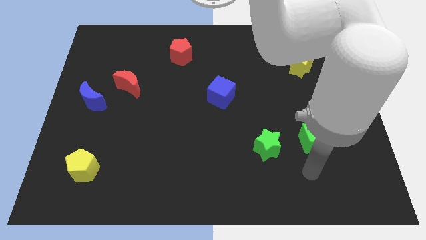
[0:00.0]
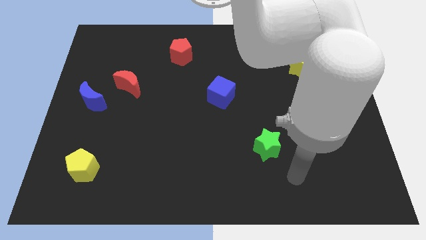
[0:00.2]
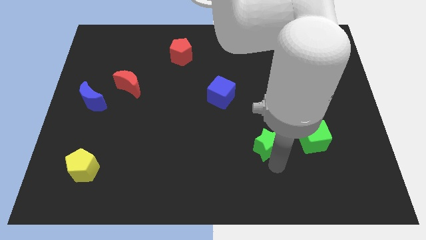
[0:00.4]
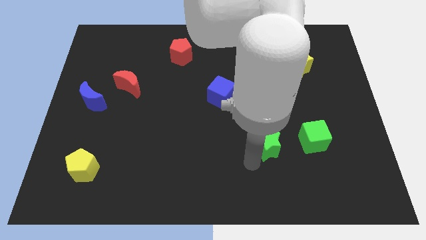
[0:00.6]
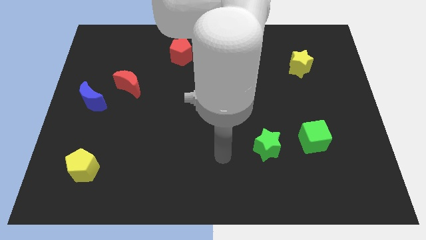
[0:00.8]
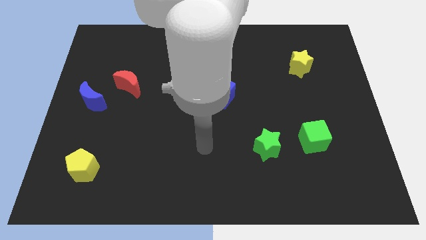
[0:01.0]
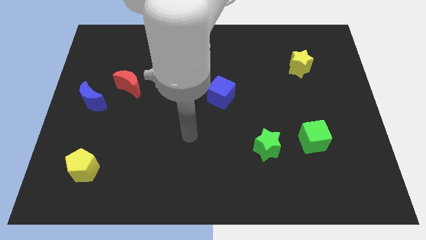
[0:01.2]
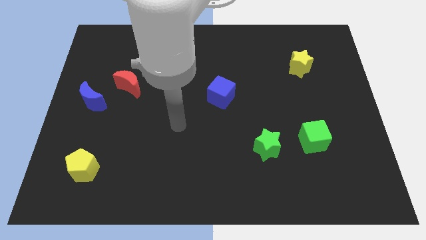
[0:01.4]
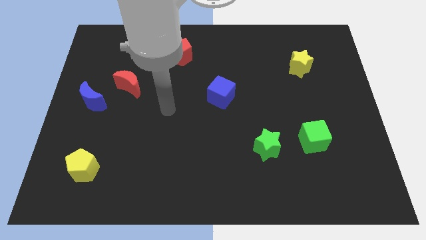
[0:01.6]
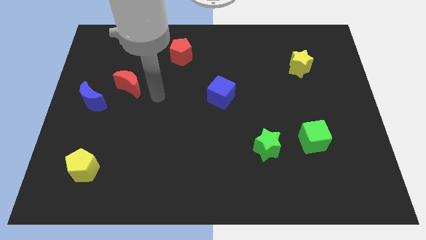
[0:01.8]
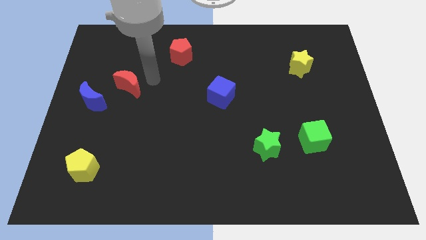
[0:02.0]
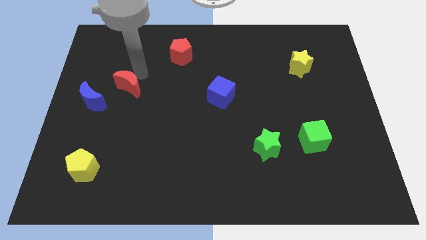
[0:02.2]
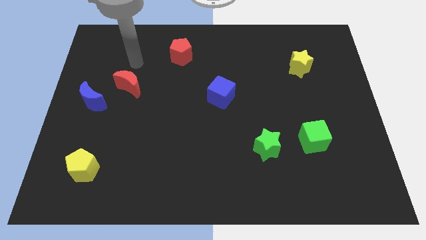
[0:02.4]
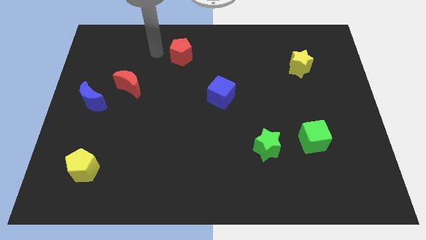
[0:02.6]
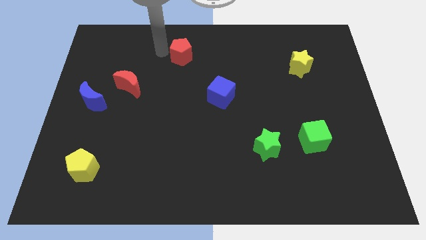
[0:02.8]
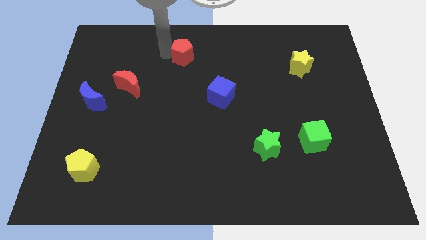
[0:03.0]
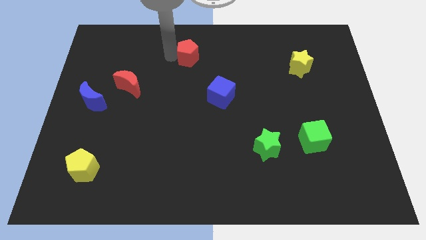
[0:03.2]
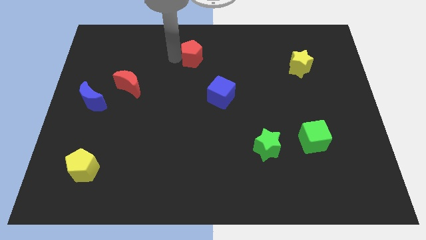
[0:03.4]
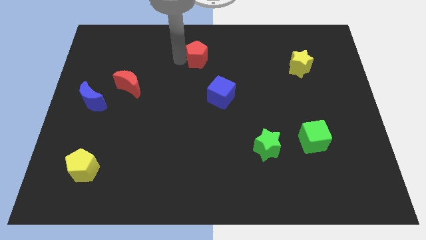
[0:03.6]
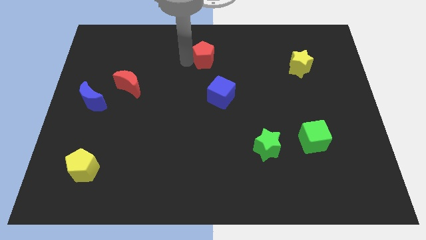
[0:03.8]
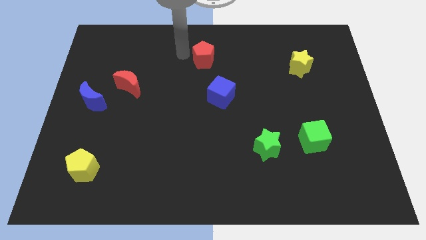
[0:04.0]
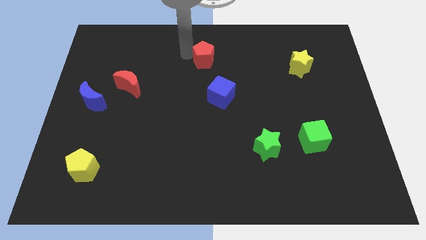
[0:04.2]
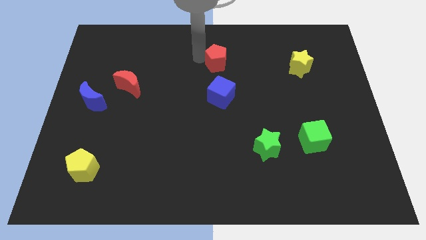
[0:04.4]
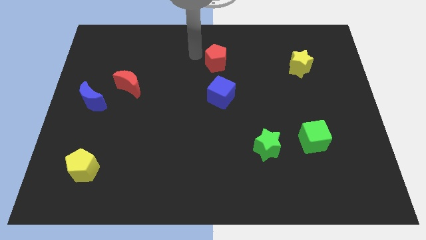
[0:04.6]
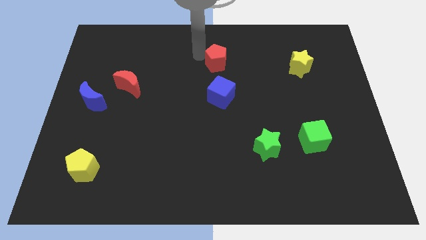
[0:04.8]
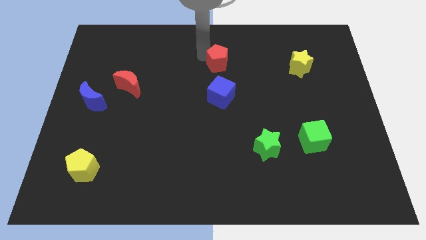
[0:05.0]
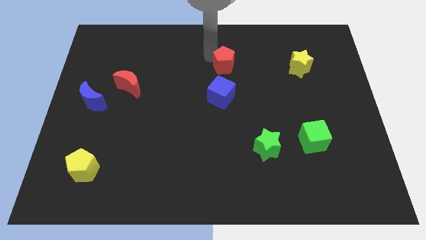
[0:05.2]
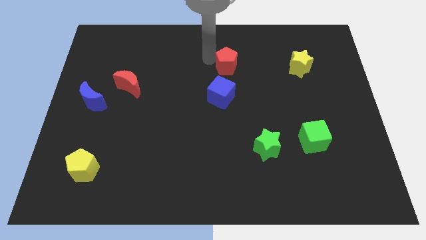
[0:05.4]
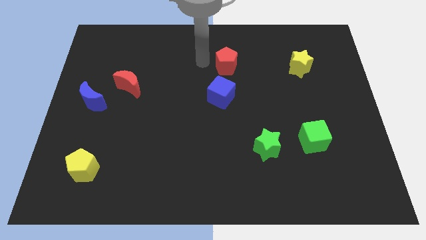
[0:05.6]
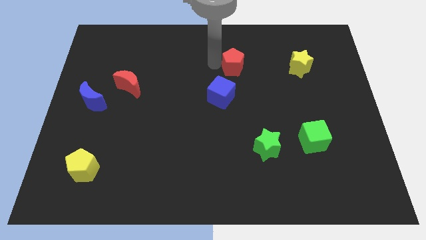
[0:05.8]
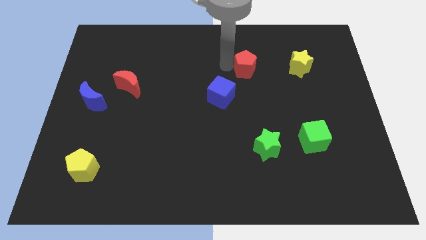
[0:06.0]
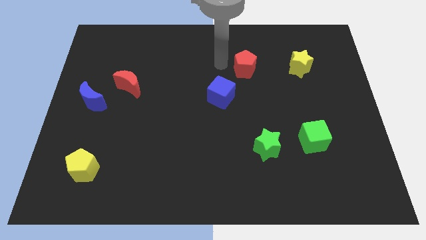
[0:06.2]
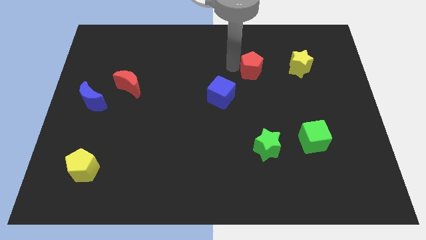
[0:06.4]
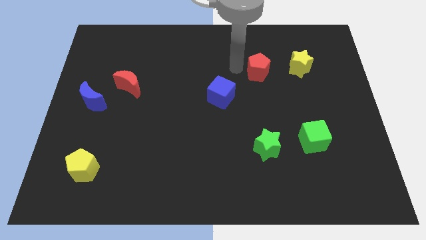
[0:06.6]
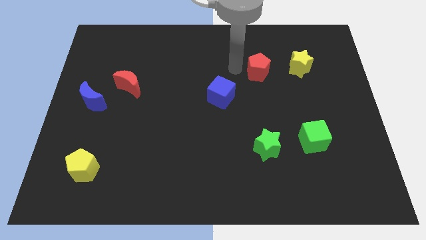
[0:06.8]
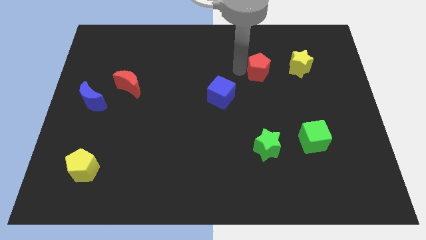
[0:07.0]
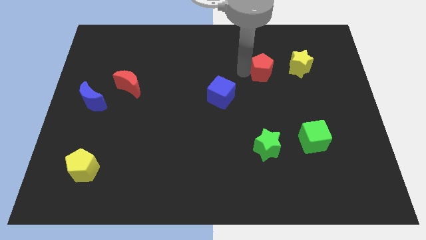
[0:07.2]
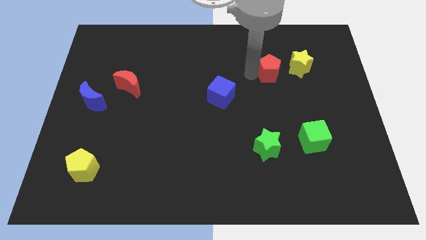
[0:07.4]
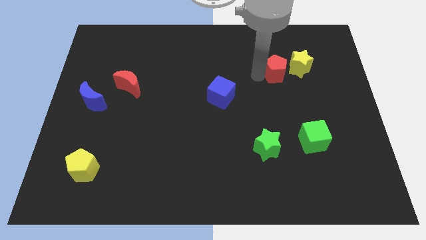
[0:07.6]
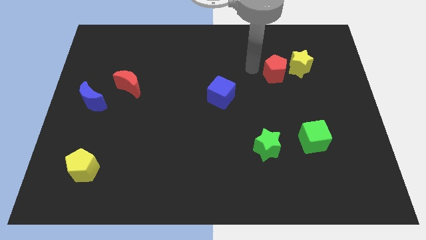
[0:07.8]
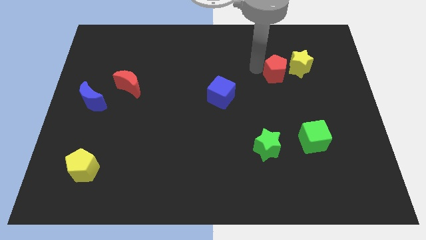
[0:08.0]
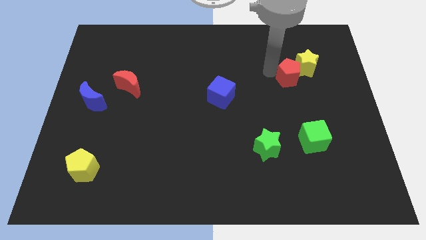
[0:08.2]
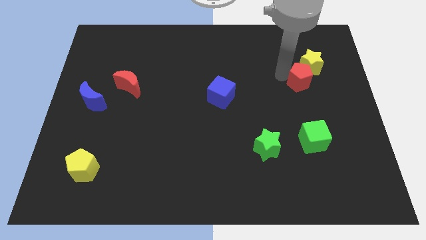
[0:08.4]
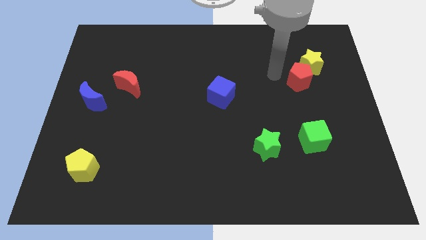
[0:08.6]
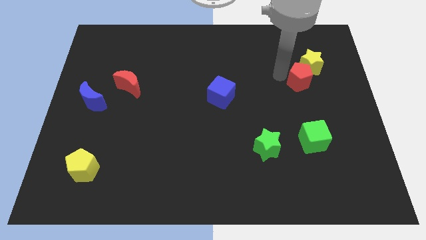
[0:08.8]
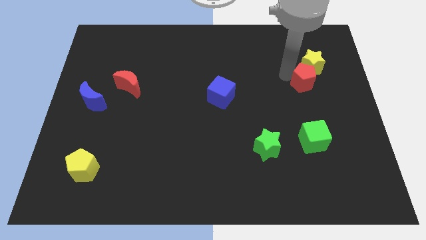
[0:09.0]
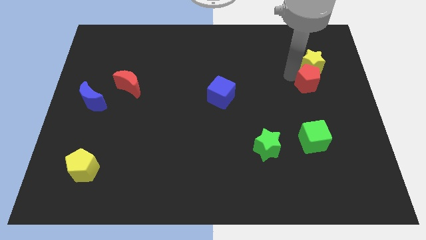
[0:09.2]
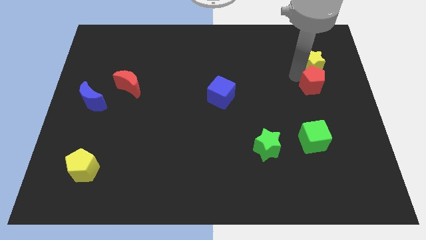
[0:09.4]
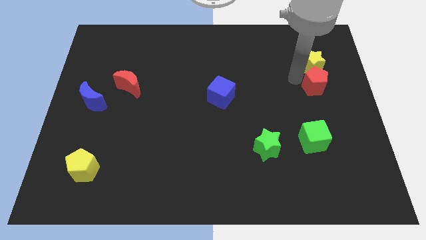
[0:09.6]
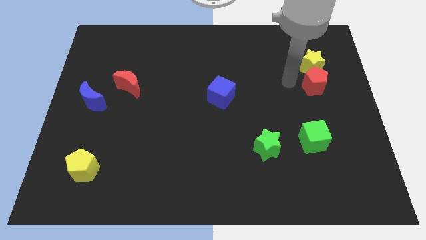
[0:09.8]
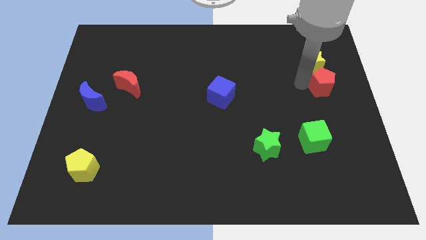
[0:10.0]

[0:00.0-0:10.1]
move the red pentagon to the right side of the board

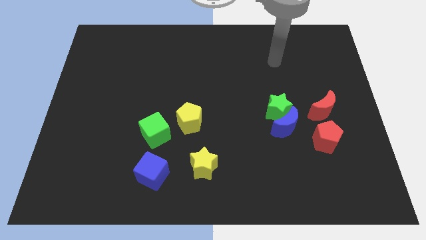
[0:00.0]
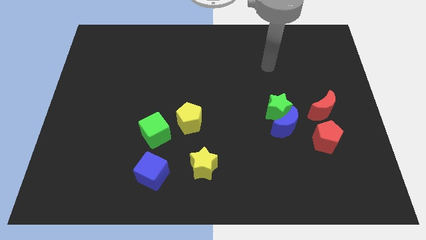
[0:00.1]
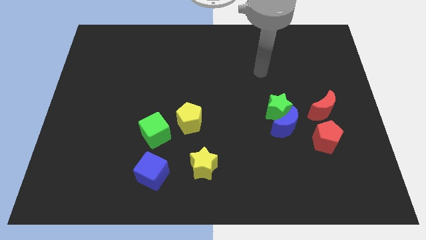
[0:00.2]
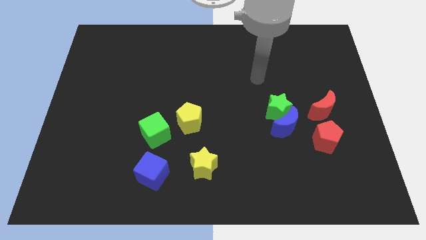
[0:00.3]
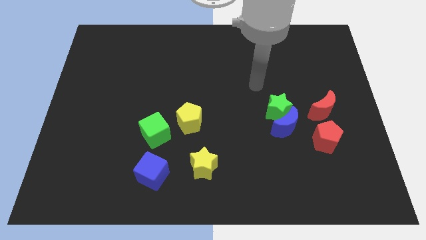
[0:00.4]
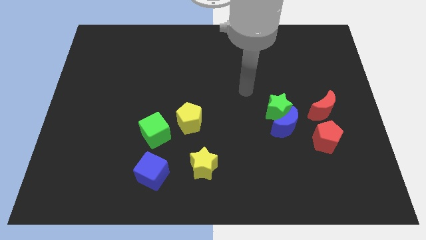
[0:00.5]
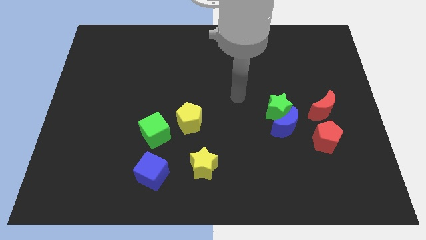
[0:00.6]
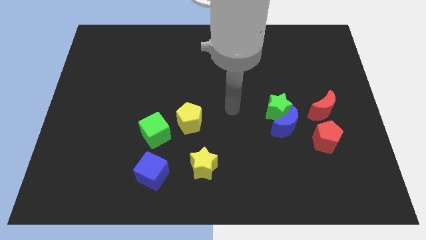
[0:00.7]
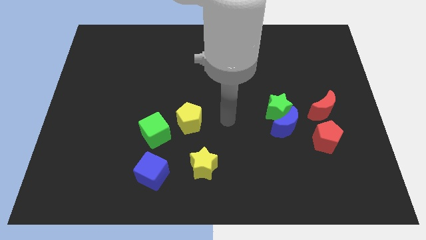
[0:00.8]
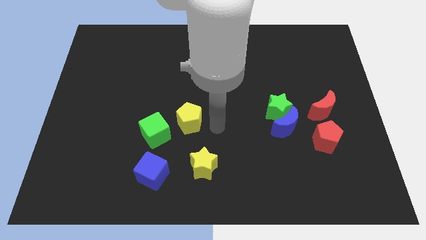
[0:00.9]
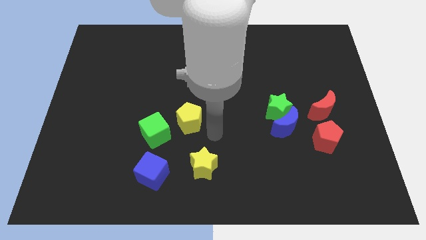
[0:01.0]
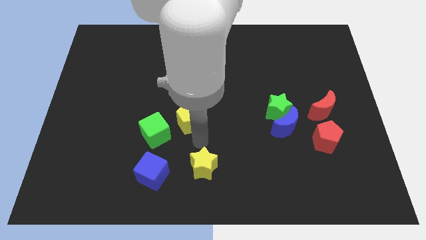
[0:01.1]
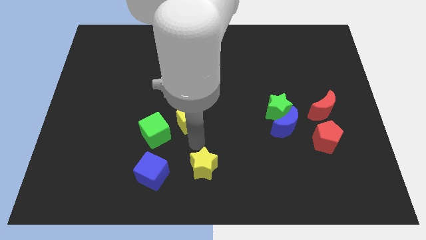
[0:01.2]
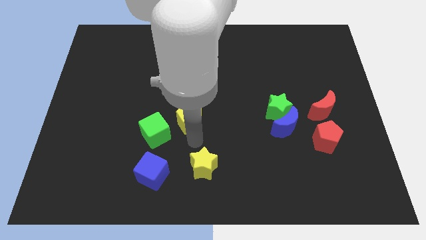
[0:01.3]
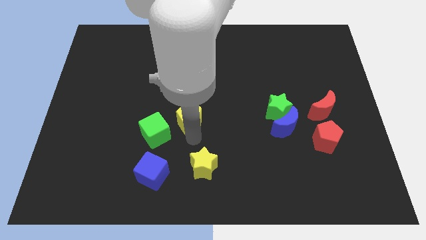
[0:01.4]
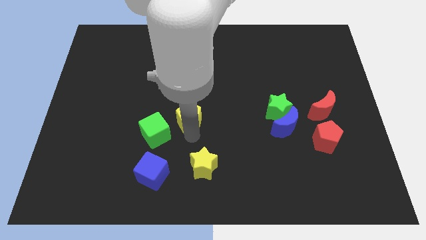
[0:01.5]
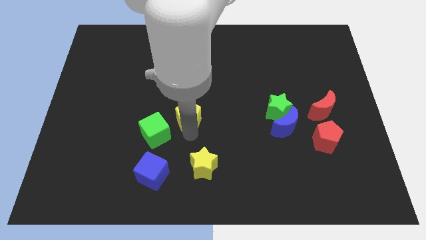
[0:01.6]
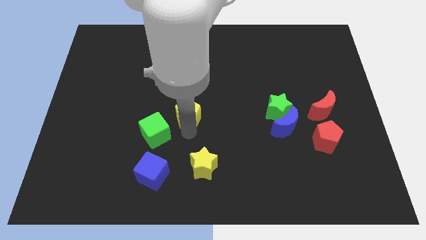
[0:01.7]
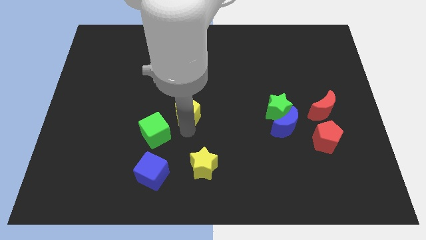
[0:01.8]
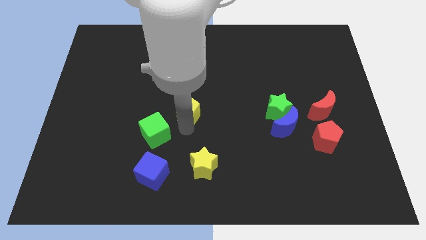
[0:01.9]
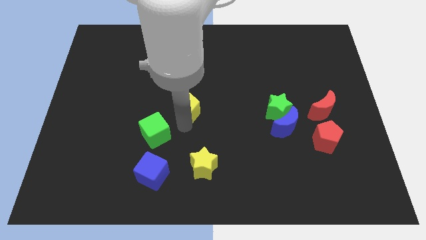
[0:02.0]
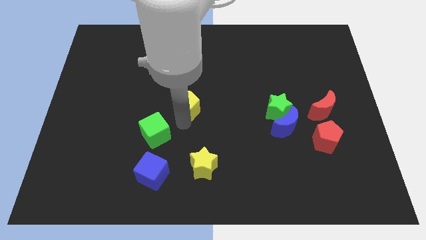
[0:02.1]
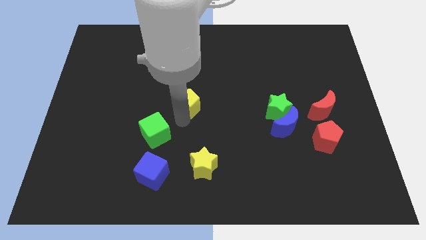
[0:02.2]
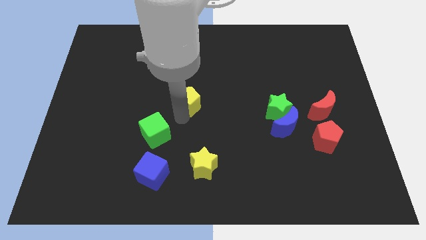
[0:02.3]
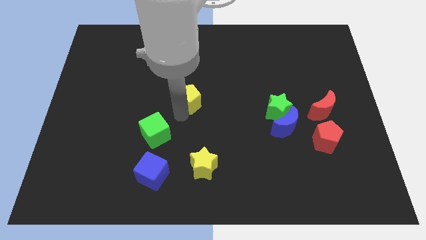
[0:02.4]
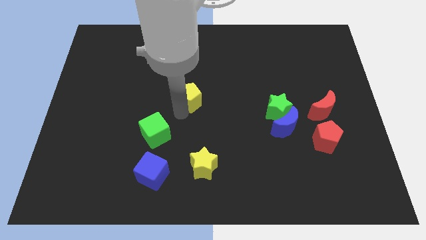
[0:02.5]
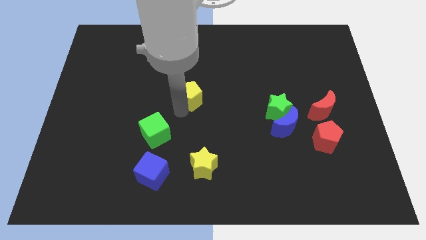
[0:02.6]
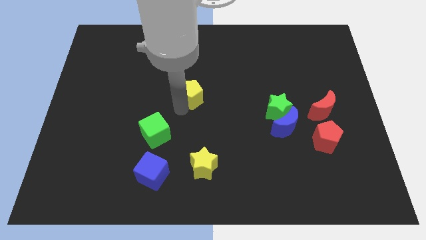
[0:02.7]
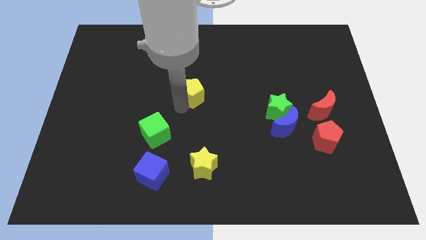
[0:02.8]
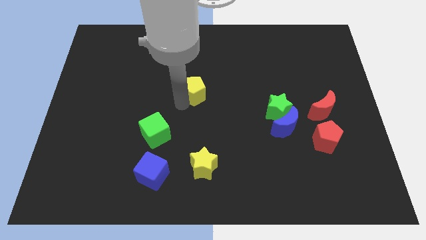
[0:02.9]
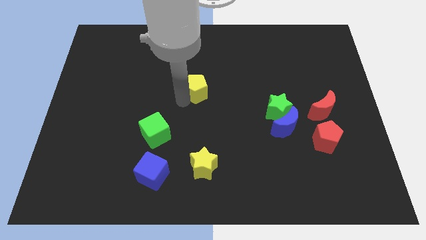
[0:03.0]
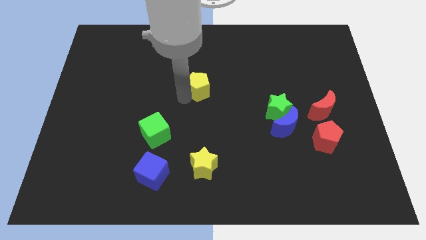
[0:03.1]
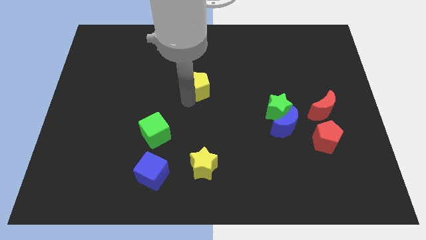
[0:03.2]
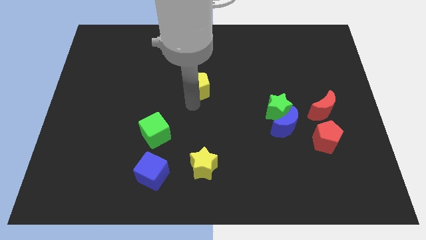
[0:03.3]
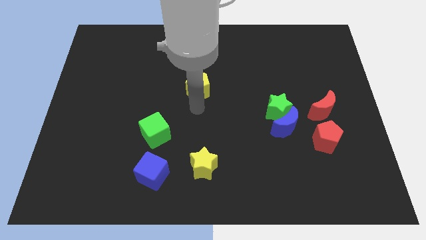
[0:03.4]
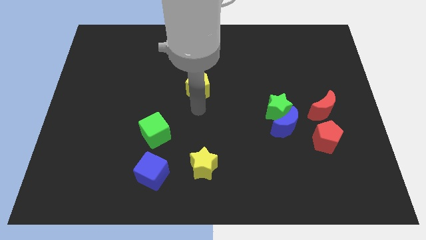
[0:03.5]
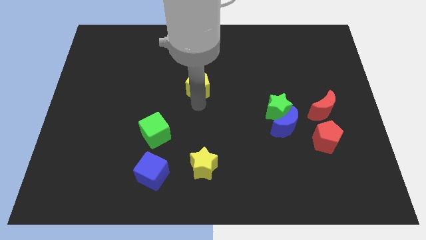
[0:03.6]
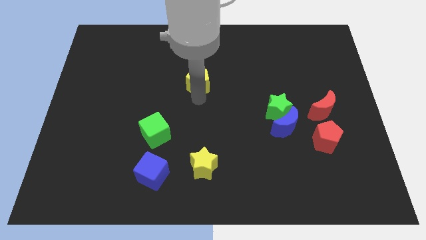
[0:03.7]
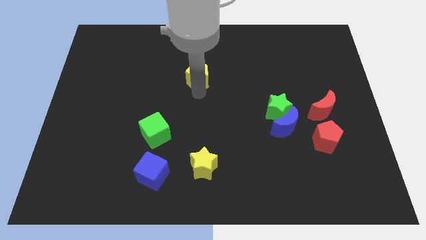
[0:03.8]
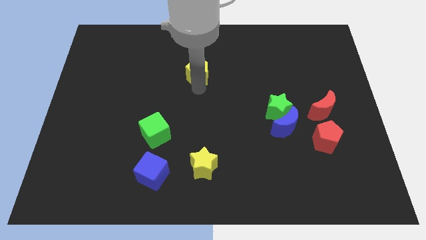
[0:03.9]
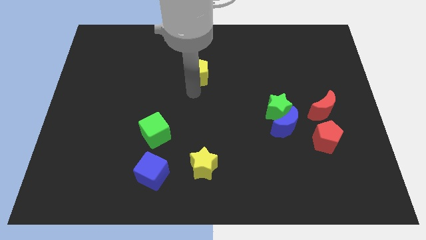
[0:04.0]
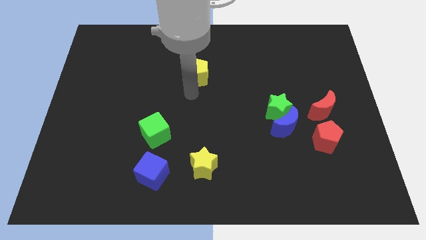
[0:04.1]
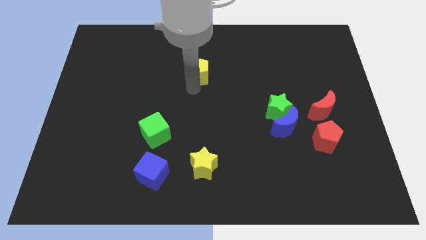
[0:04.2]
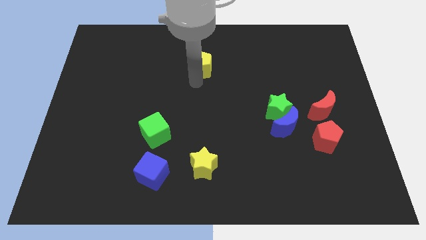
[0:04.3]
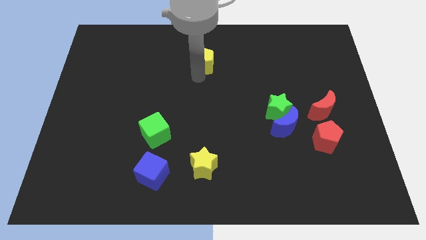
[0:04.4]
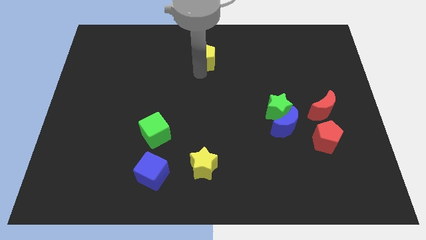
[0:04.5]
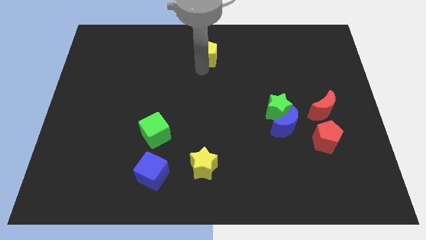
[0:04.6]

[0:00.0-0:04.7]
move the yellow pentagon to the towards your base
